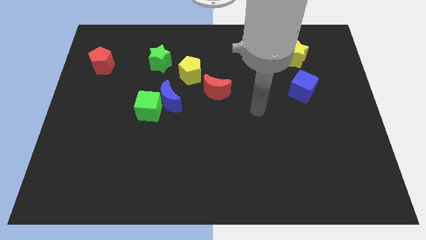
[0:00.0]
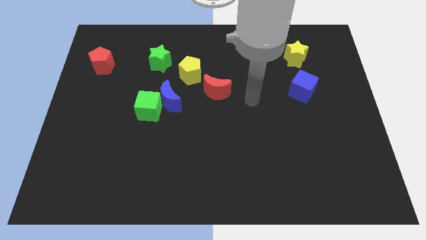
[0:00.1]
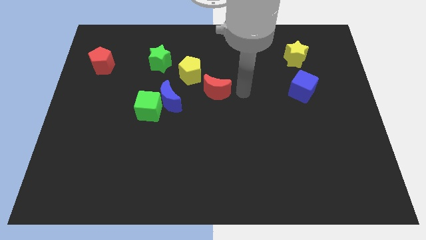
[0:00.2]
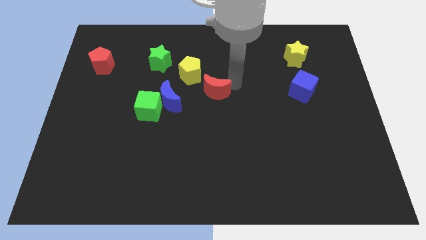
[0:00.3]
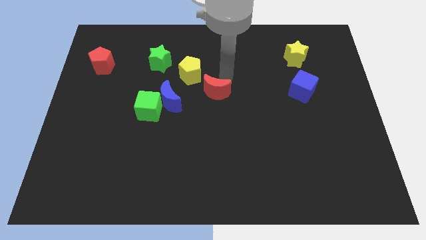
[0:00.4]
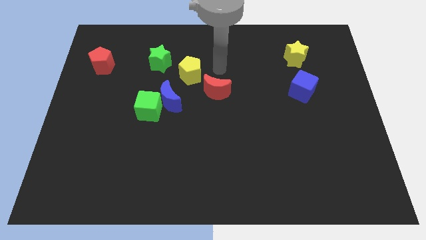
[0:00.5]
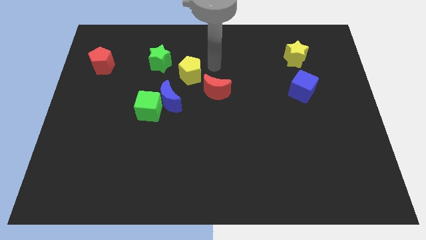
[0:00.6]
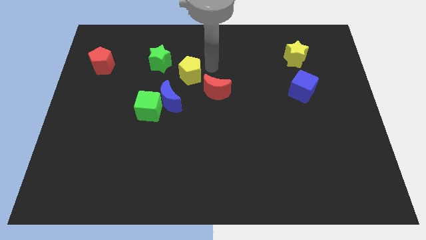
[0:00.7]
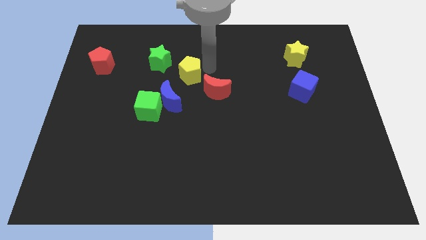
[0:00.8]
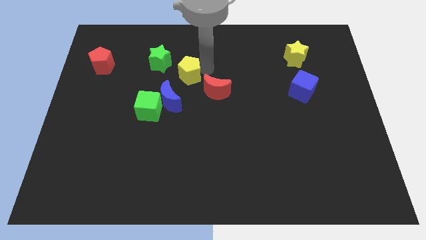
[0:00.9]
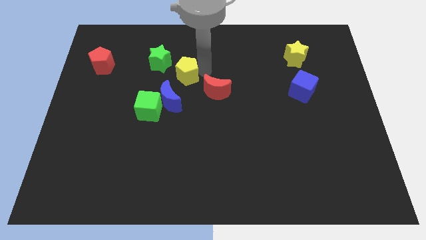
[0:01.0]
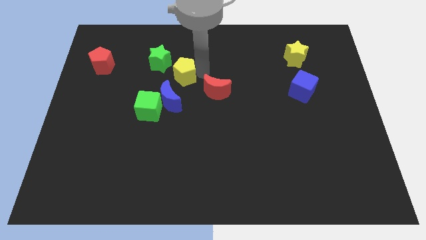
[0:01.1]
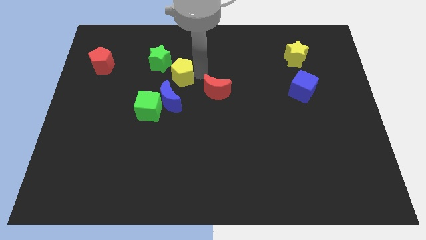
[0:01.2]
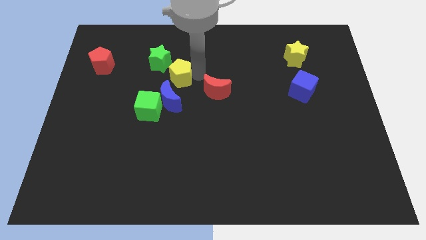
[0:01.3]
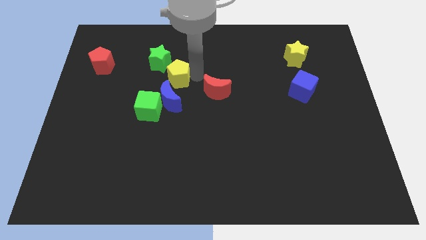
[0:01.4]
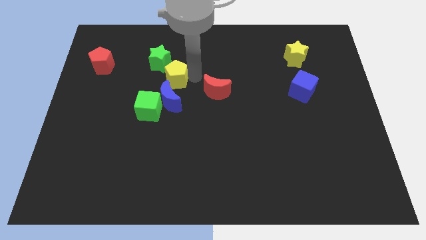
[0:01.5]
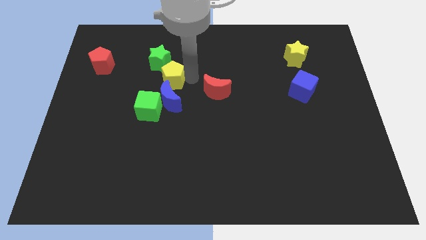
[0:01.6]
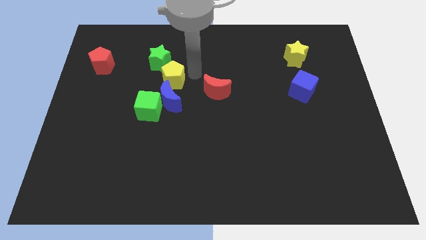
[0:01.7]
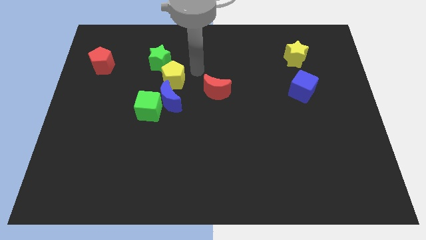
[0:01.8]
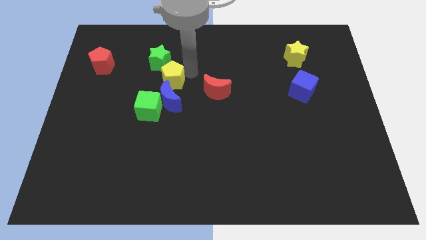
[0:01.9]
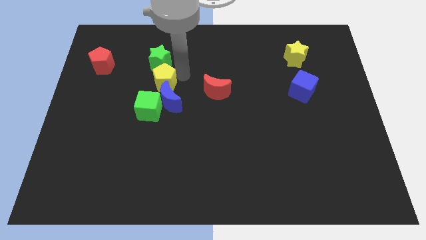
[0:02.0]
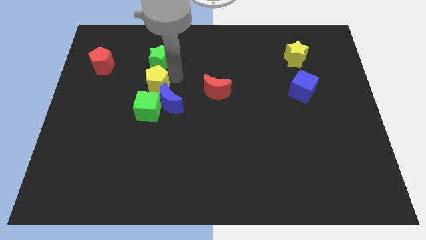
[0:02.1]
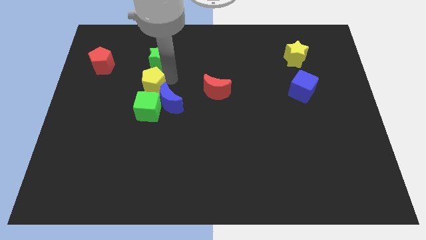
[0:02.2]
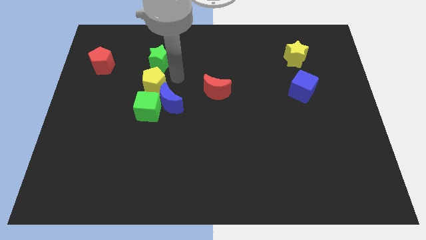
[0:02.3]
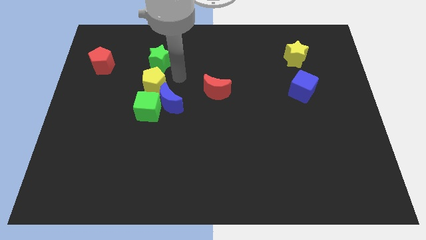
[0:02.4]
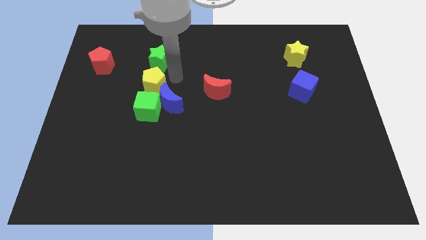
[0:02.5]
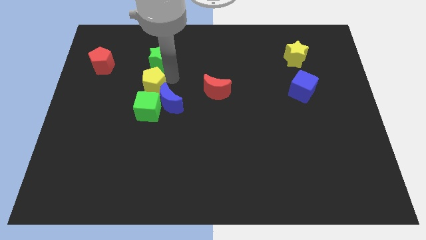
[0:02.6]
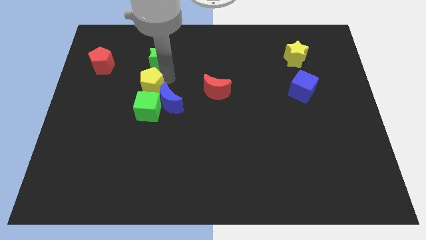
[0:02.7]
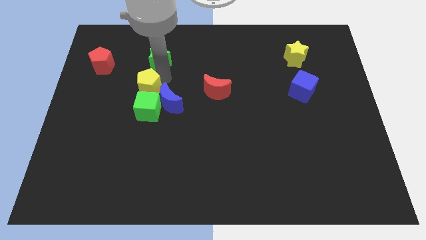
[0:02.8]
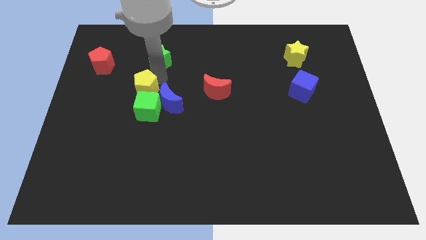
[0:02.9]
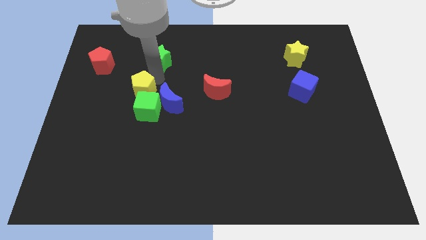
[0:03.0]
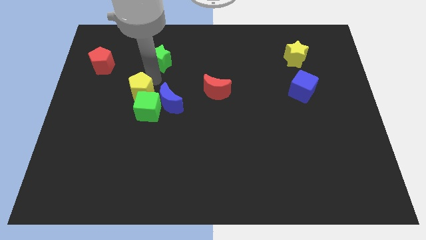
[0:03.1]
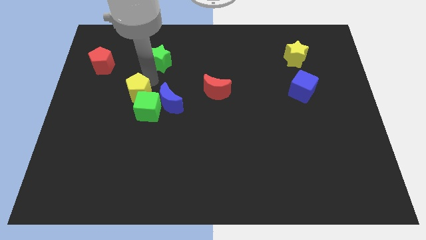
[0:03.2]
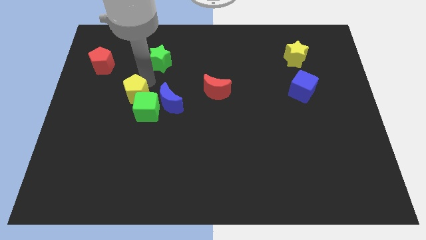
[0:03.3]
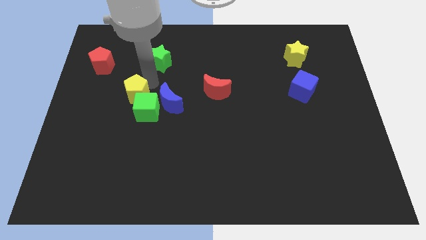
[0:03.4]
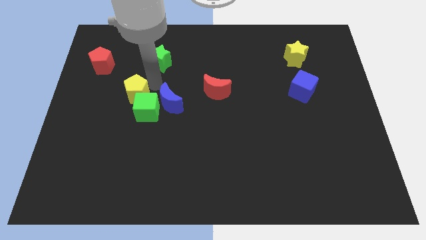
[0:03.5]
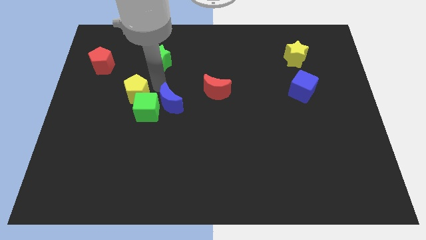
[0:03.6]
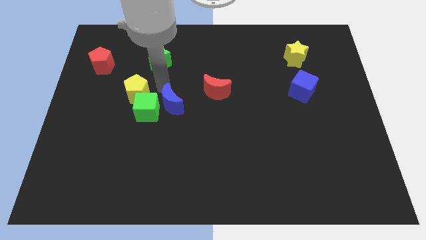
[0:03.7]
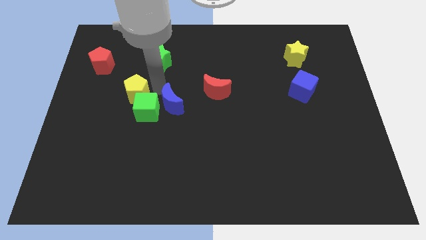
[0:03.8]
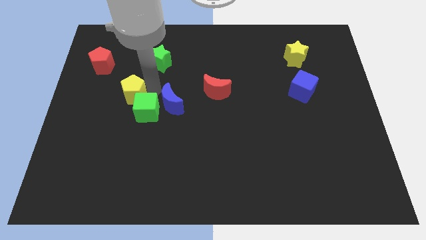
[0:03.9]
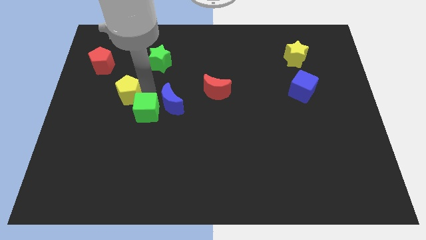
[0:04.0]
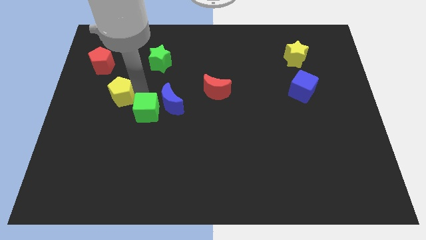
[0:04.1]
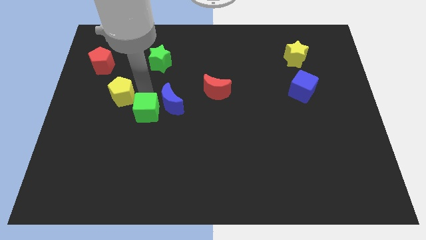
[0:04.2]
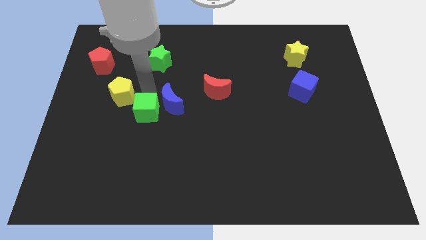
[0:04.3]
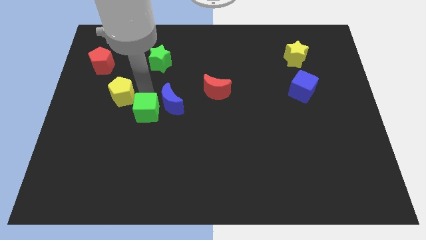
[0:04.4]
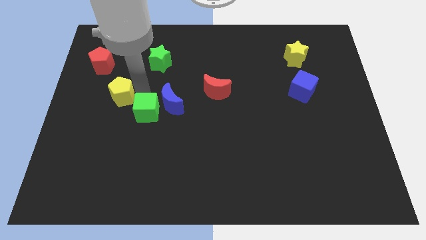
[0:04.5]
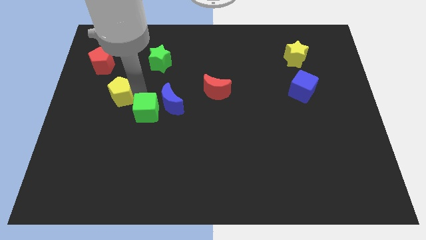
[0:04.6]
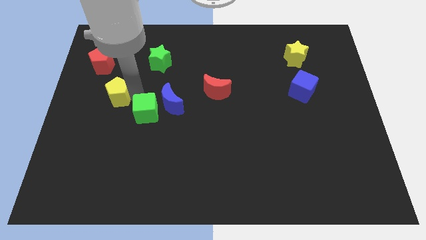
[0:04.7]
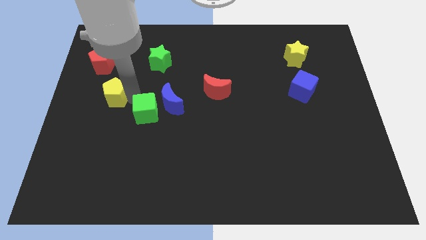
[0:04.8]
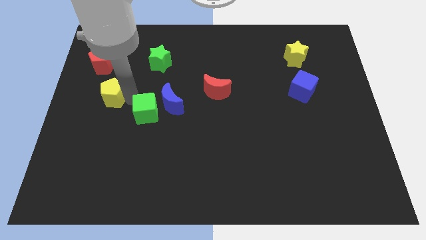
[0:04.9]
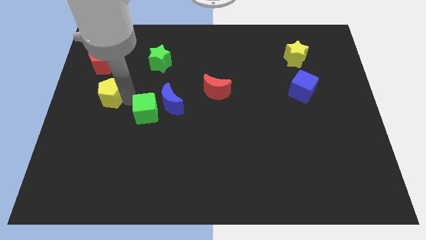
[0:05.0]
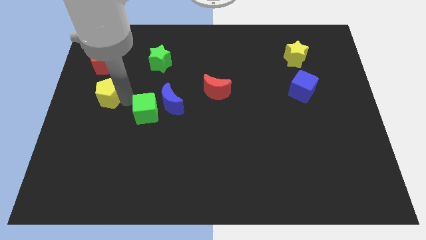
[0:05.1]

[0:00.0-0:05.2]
put the yellow pentagon to the center left

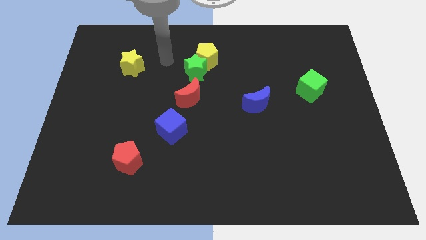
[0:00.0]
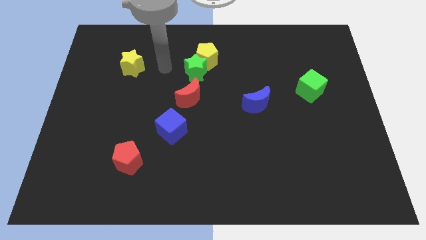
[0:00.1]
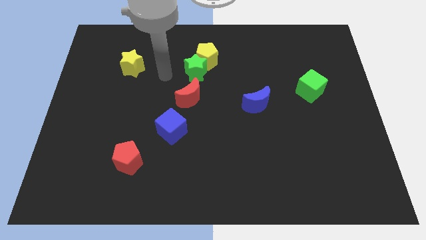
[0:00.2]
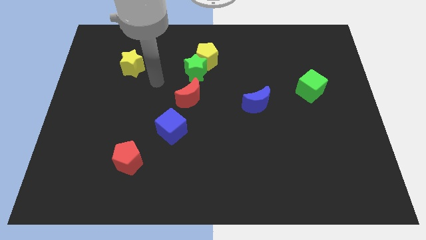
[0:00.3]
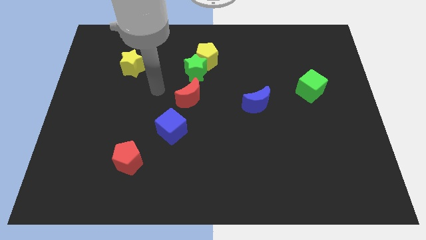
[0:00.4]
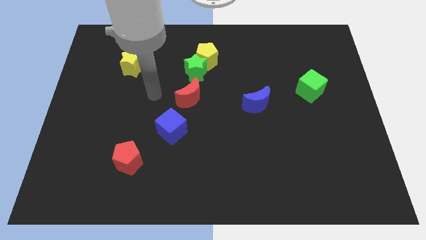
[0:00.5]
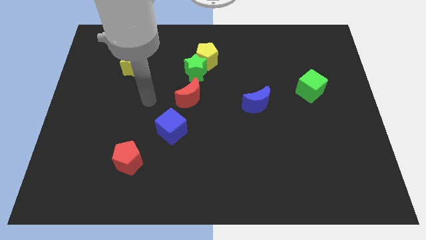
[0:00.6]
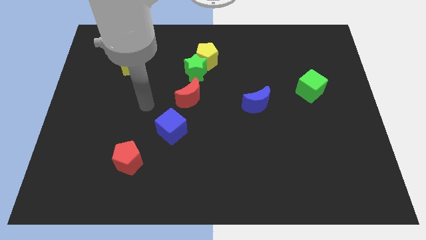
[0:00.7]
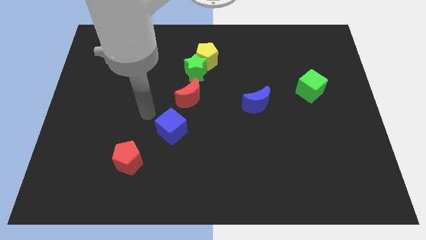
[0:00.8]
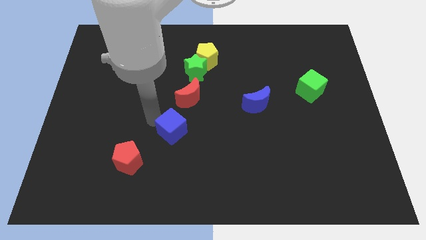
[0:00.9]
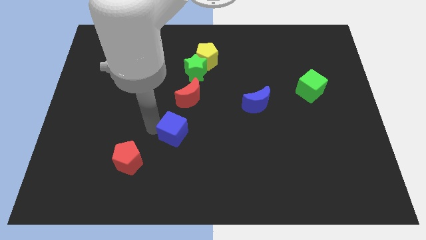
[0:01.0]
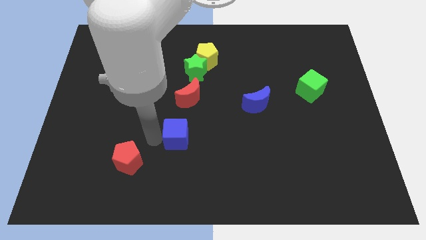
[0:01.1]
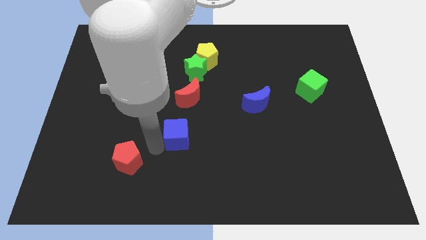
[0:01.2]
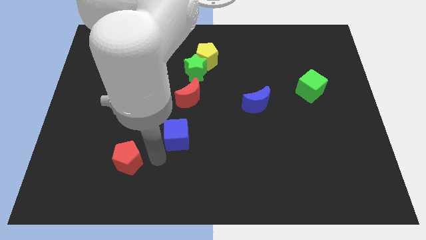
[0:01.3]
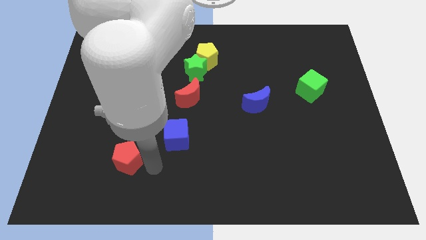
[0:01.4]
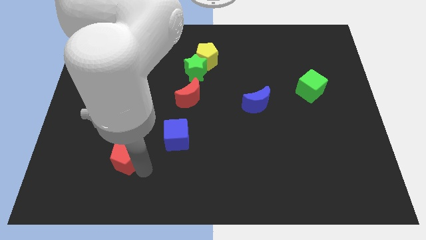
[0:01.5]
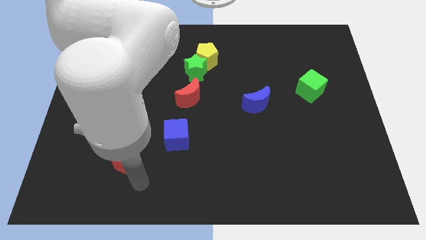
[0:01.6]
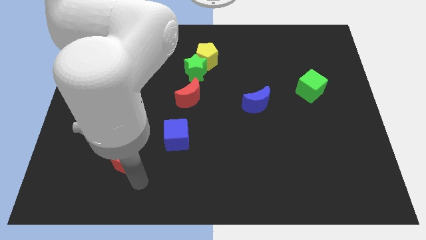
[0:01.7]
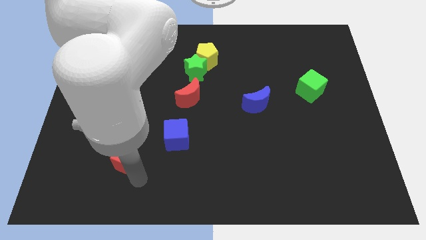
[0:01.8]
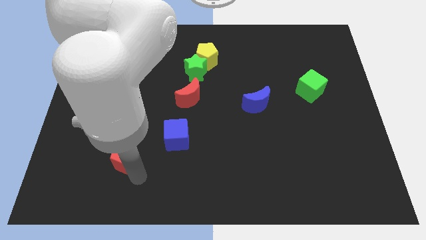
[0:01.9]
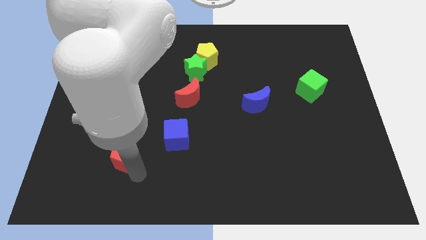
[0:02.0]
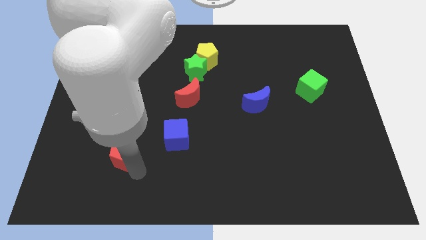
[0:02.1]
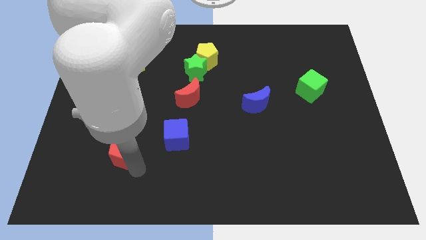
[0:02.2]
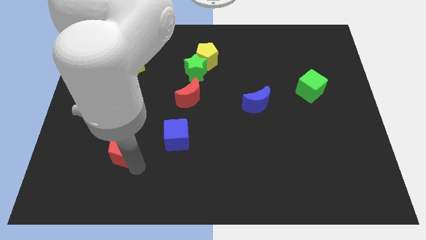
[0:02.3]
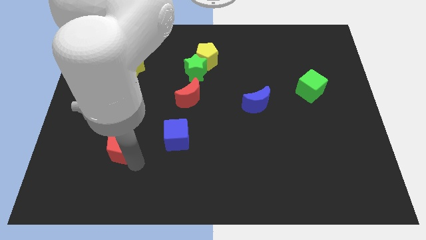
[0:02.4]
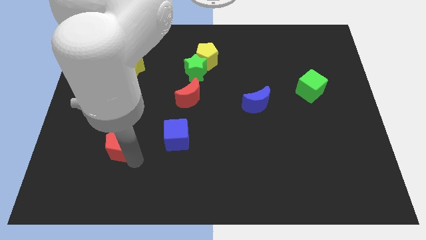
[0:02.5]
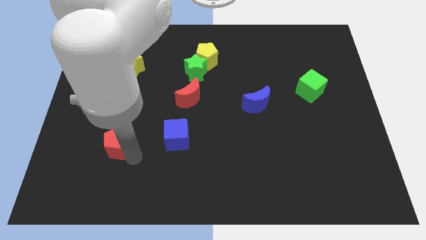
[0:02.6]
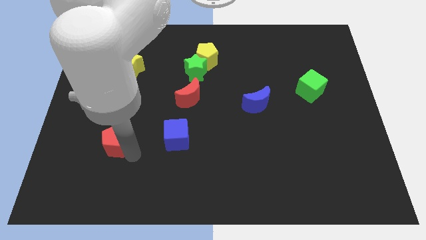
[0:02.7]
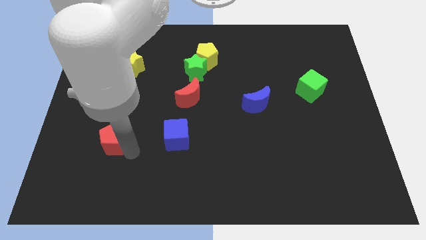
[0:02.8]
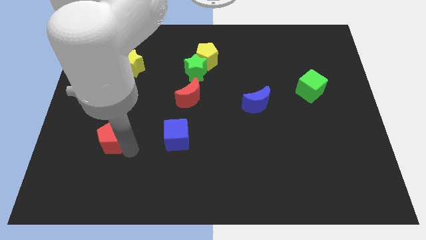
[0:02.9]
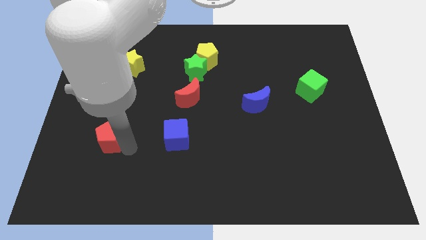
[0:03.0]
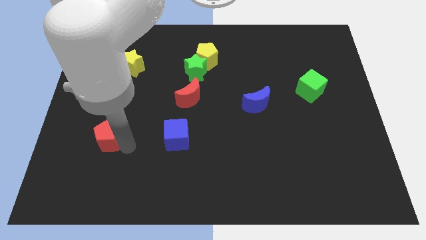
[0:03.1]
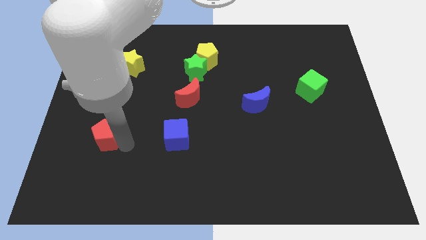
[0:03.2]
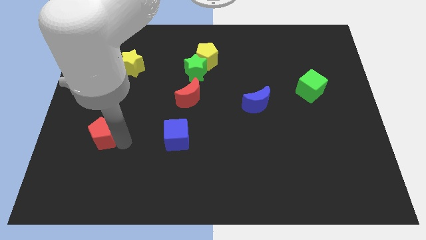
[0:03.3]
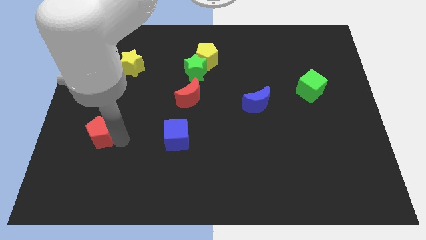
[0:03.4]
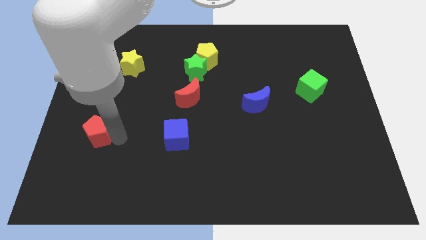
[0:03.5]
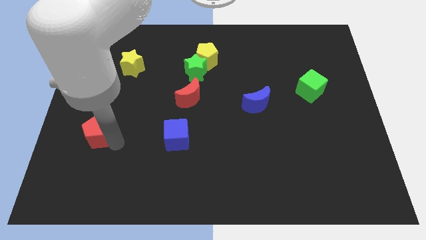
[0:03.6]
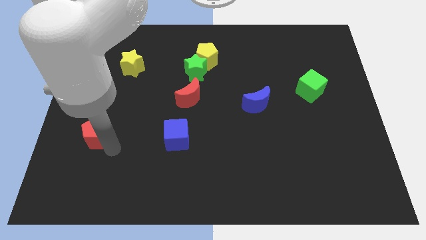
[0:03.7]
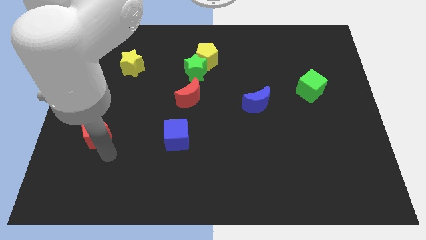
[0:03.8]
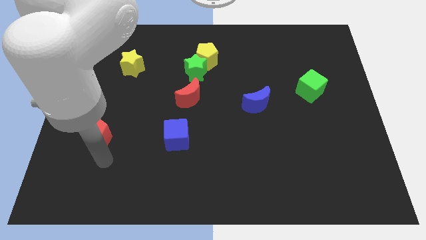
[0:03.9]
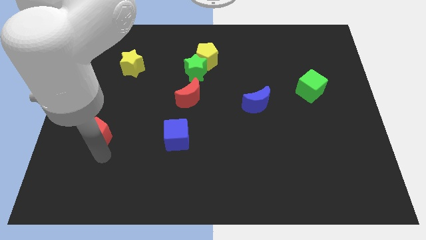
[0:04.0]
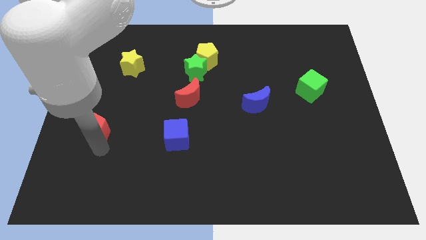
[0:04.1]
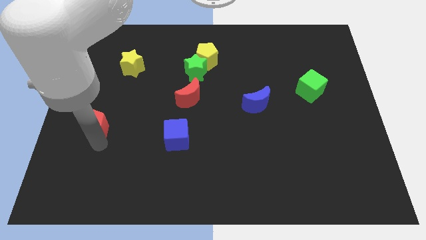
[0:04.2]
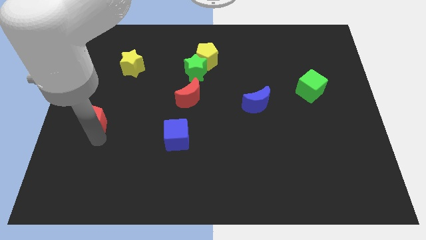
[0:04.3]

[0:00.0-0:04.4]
push the red pentagon to the center left
